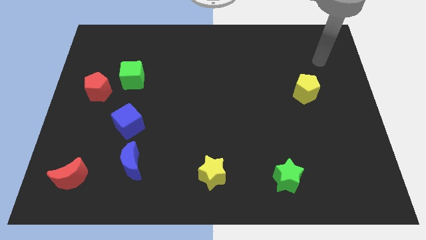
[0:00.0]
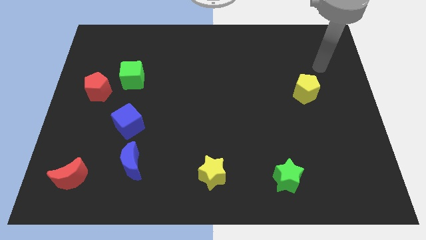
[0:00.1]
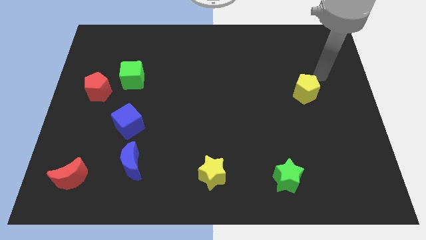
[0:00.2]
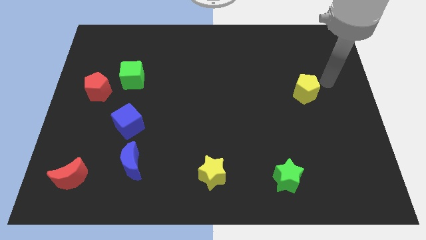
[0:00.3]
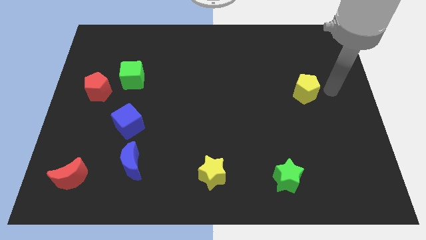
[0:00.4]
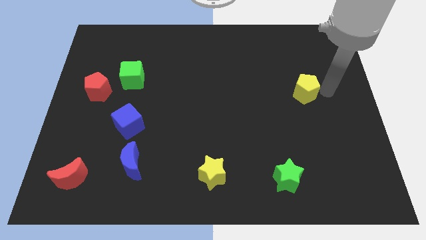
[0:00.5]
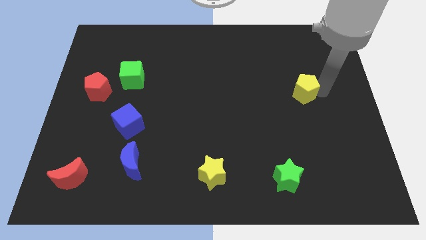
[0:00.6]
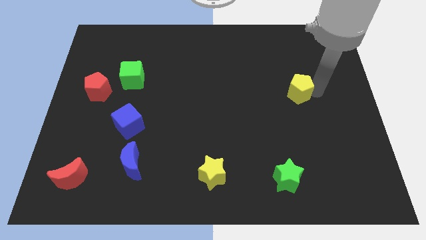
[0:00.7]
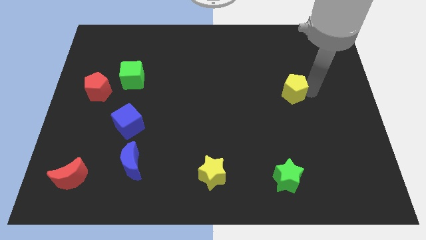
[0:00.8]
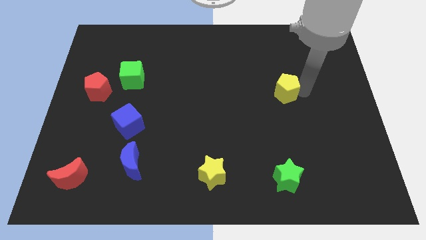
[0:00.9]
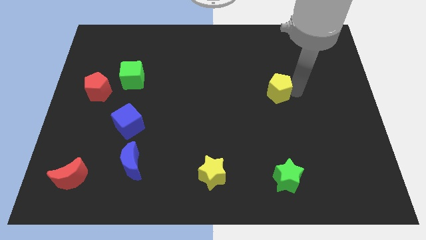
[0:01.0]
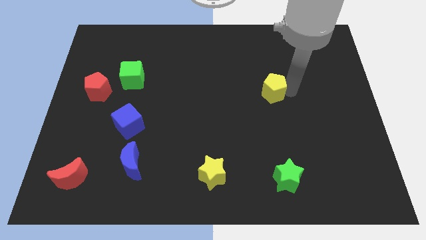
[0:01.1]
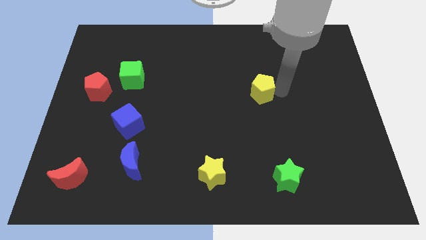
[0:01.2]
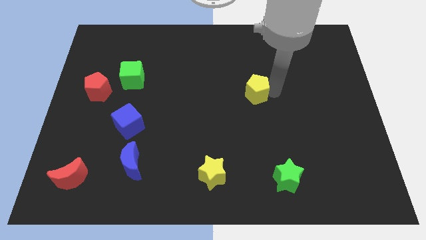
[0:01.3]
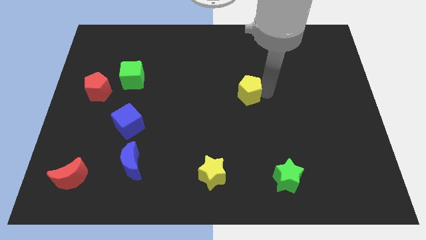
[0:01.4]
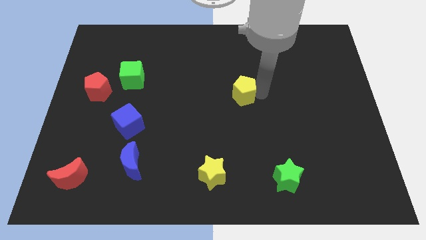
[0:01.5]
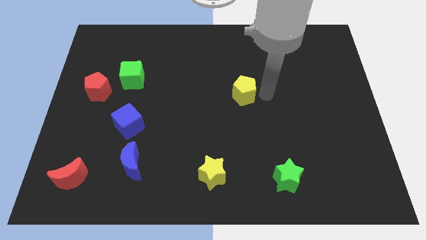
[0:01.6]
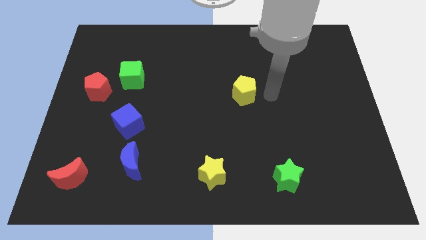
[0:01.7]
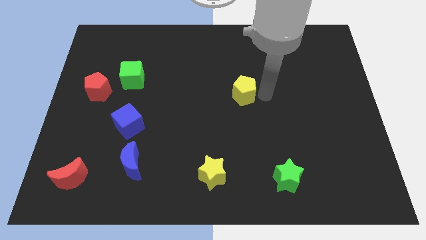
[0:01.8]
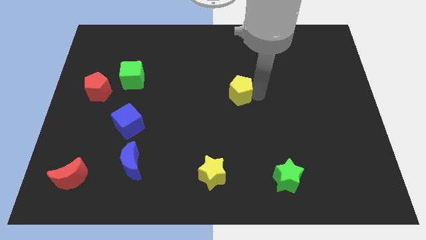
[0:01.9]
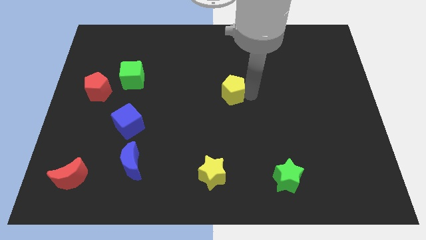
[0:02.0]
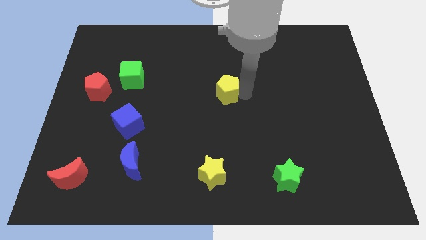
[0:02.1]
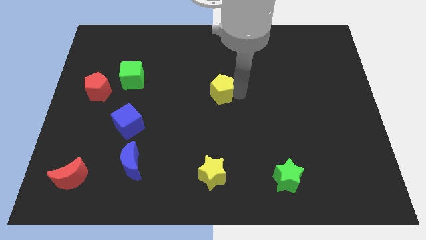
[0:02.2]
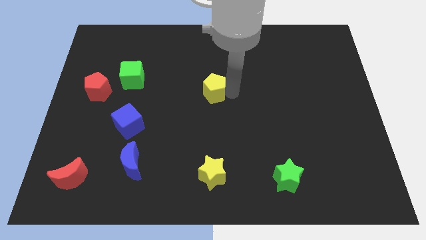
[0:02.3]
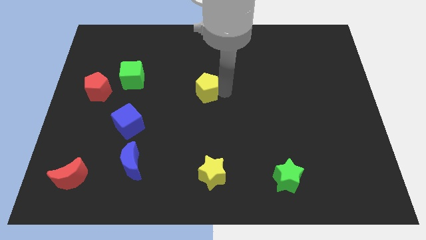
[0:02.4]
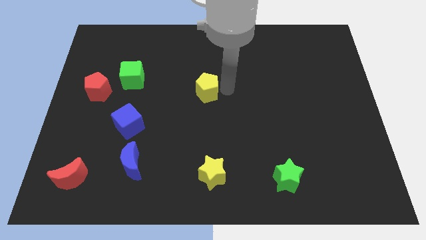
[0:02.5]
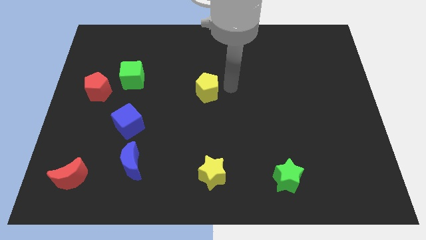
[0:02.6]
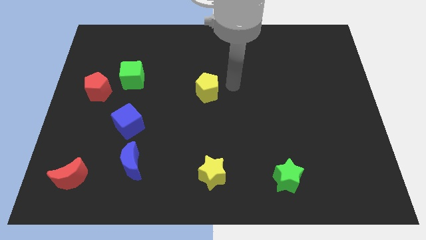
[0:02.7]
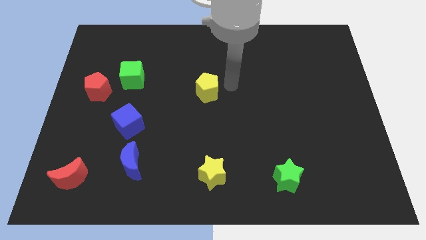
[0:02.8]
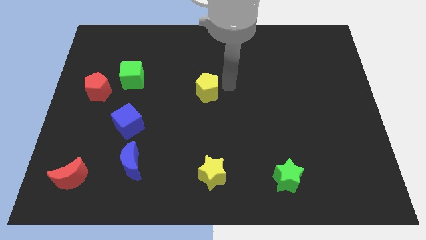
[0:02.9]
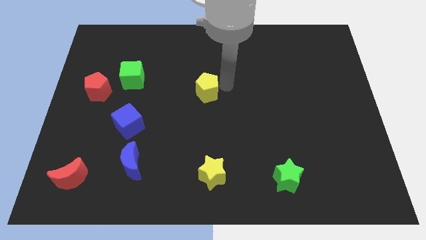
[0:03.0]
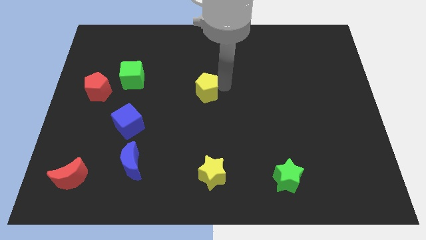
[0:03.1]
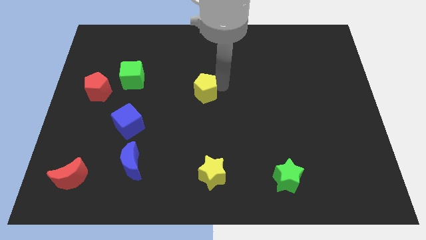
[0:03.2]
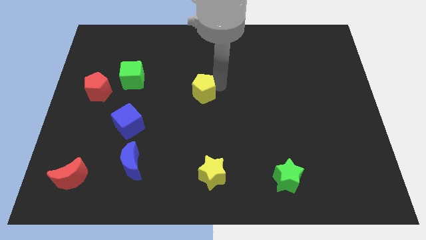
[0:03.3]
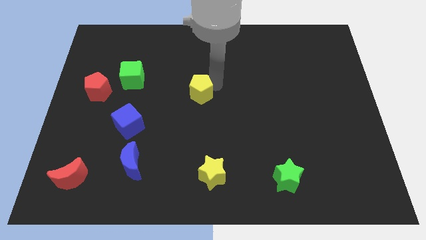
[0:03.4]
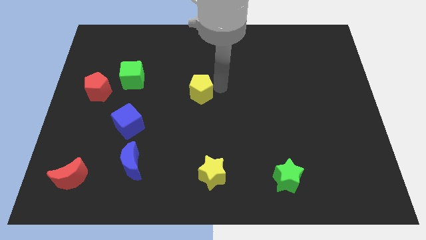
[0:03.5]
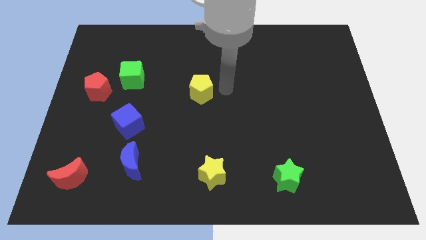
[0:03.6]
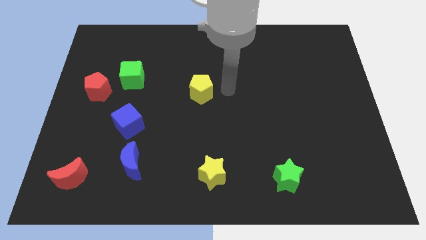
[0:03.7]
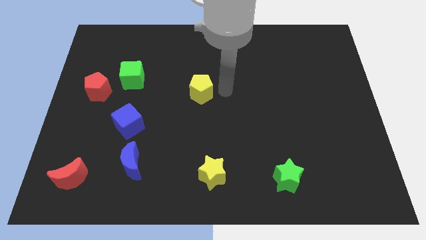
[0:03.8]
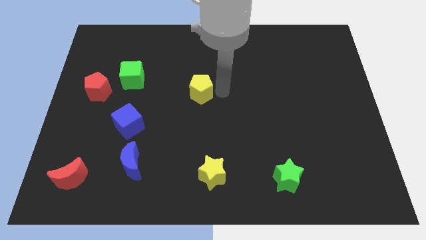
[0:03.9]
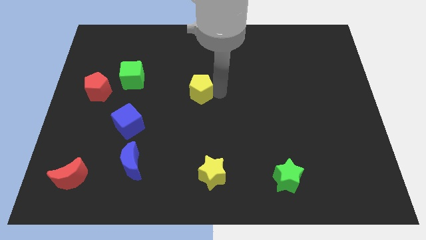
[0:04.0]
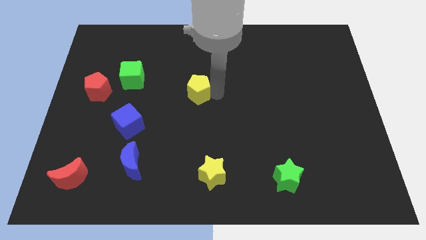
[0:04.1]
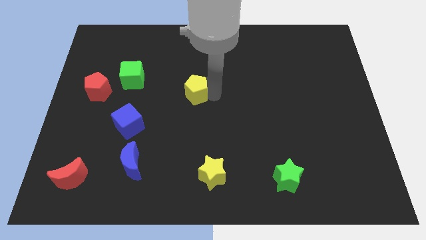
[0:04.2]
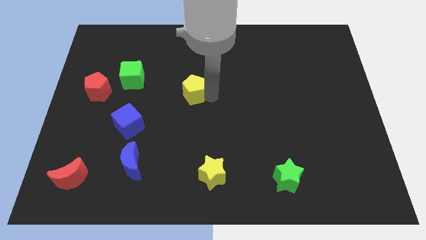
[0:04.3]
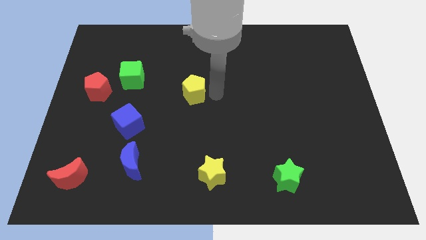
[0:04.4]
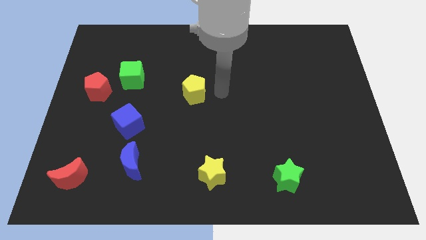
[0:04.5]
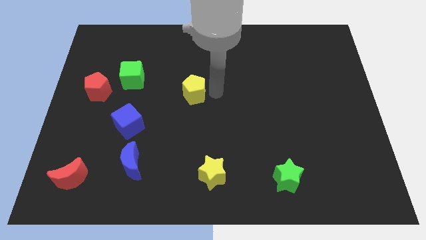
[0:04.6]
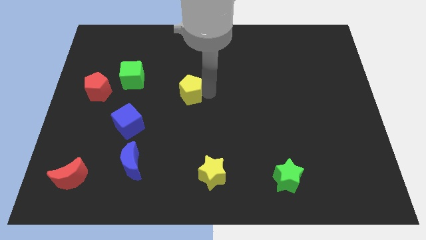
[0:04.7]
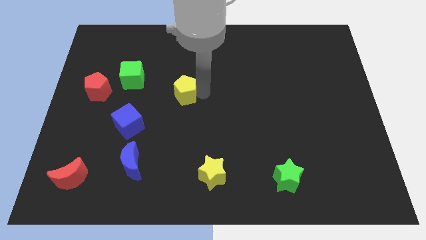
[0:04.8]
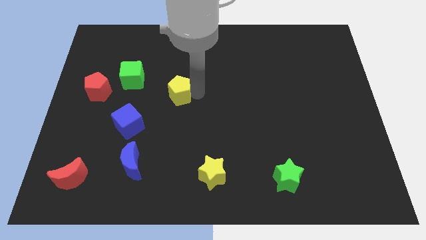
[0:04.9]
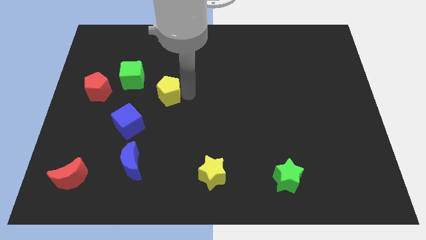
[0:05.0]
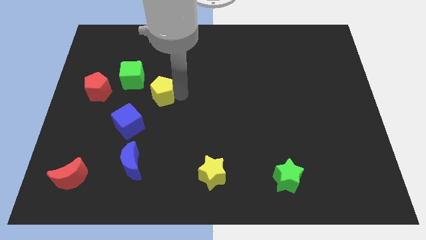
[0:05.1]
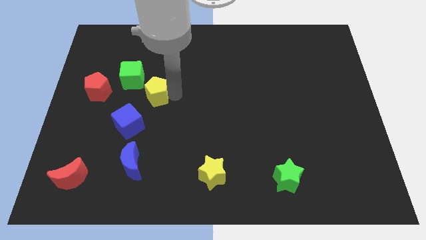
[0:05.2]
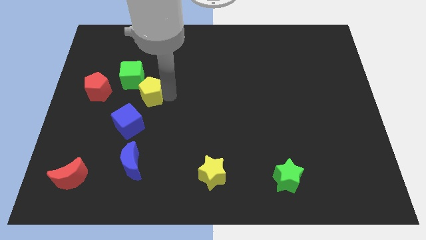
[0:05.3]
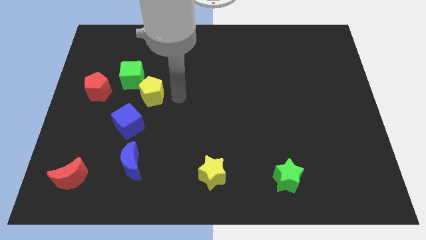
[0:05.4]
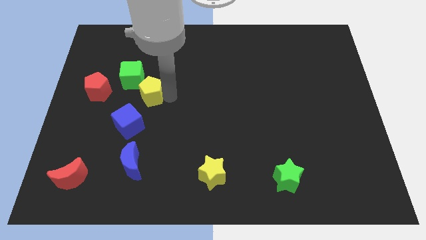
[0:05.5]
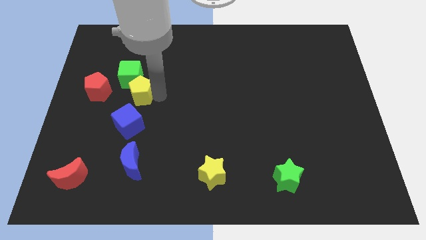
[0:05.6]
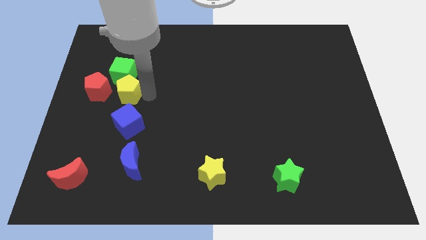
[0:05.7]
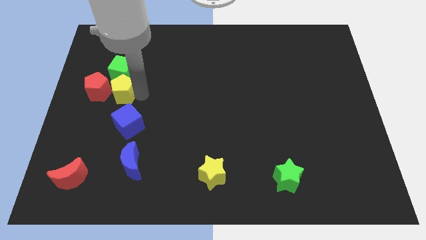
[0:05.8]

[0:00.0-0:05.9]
slide the yellow pentagon close to the red pentagon

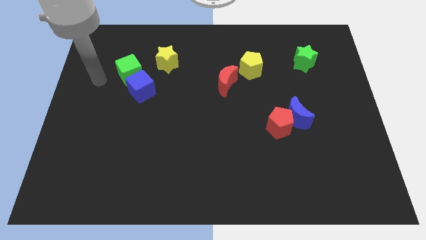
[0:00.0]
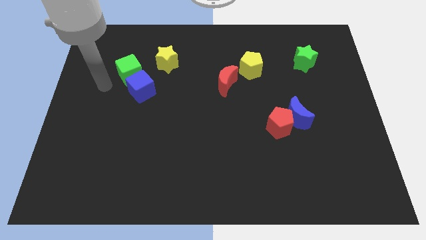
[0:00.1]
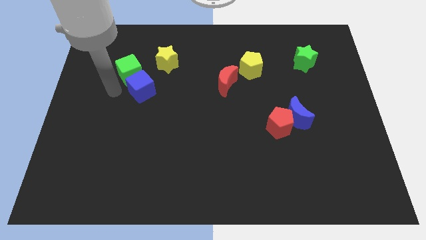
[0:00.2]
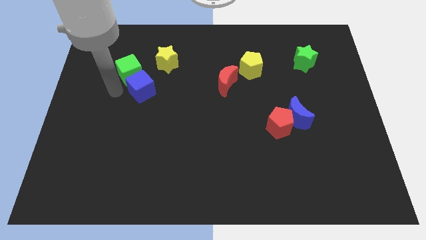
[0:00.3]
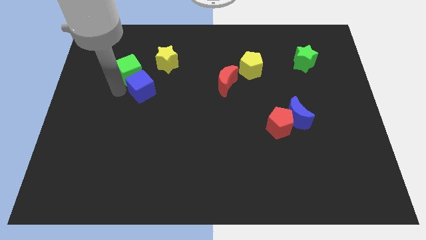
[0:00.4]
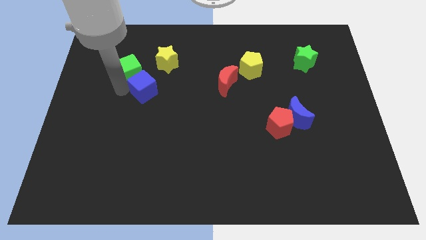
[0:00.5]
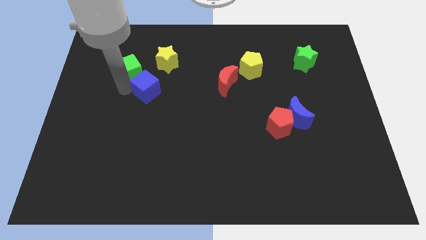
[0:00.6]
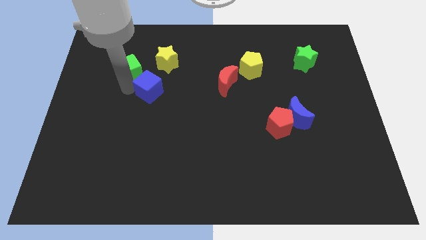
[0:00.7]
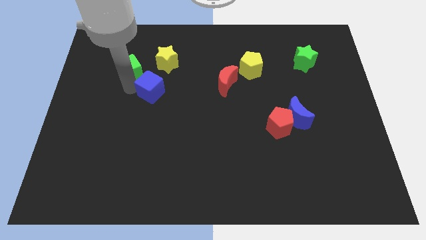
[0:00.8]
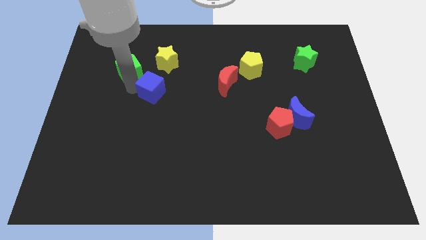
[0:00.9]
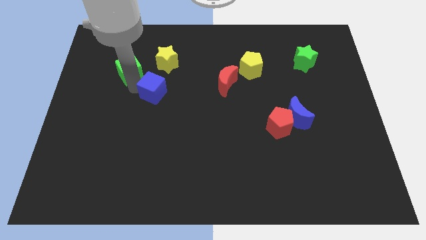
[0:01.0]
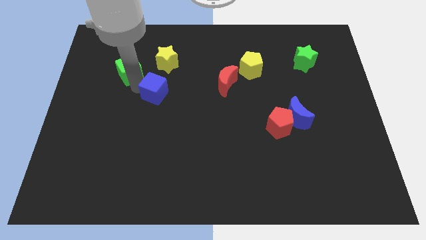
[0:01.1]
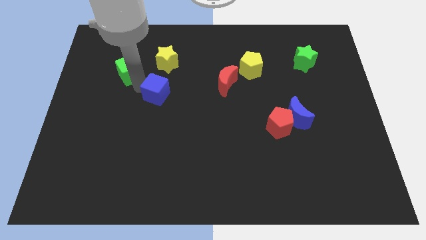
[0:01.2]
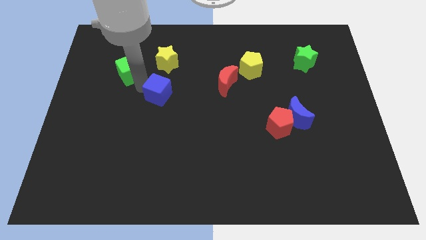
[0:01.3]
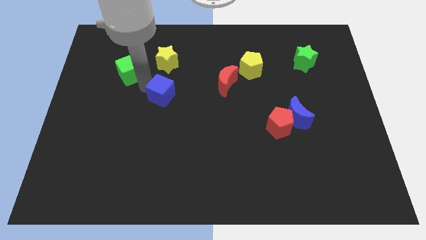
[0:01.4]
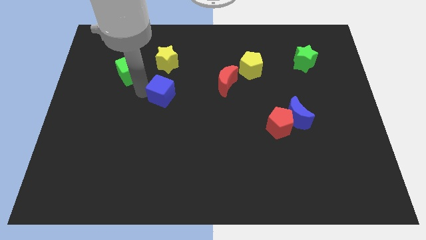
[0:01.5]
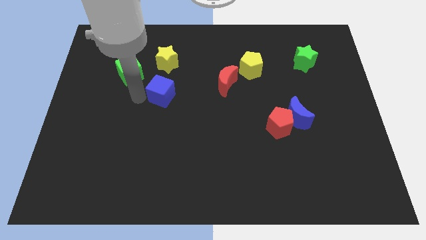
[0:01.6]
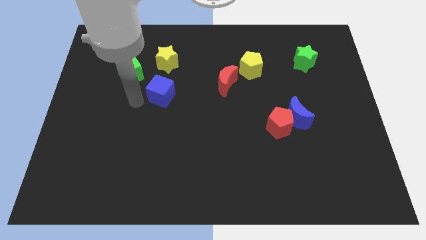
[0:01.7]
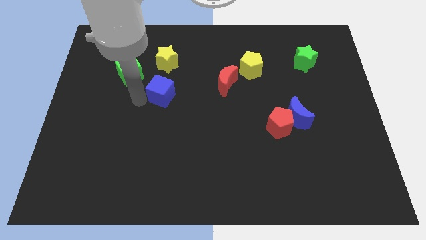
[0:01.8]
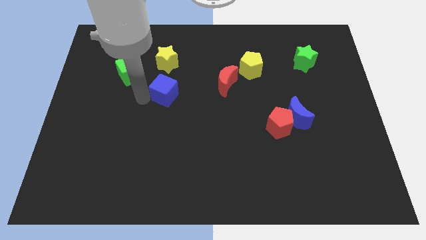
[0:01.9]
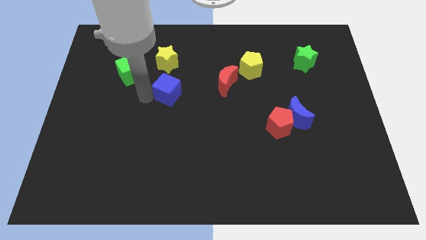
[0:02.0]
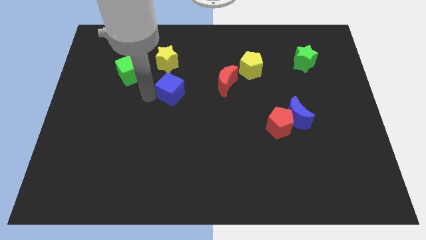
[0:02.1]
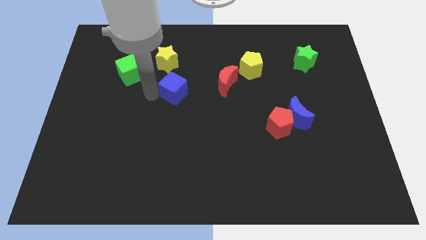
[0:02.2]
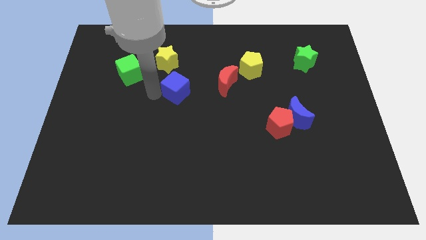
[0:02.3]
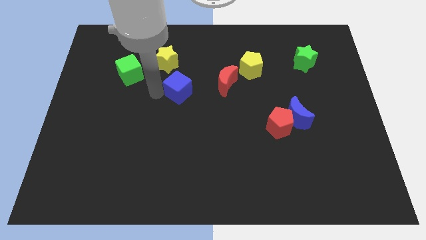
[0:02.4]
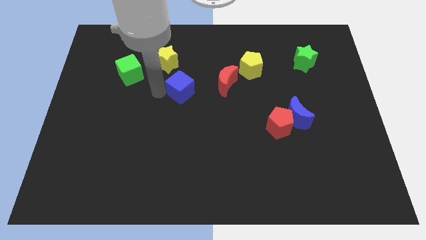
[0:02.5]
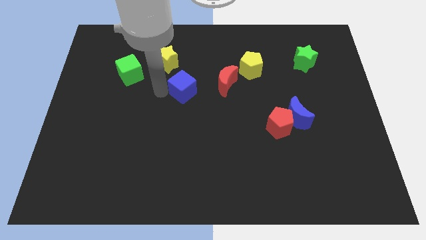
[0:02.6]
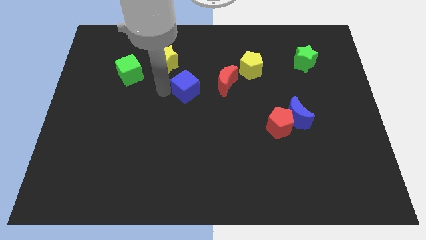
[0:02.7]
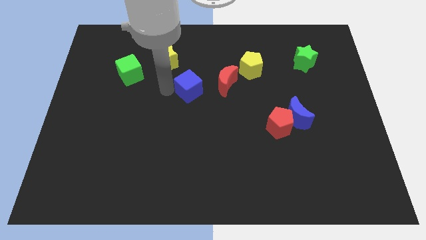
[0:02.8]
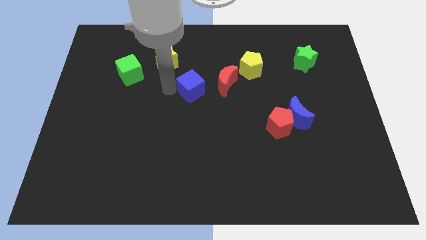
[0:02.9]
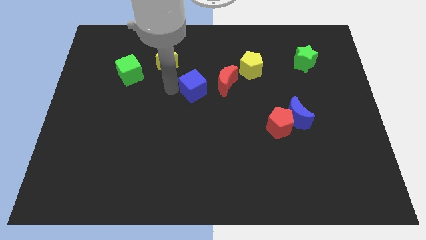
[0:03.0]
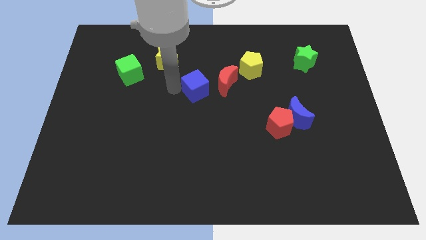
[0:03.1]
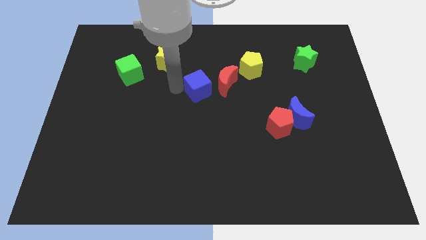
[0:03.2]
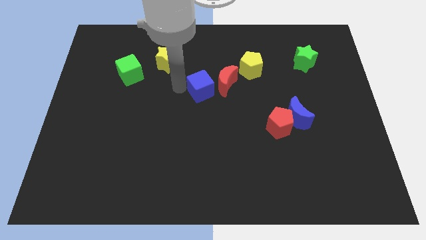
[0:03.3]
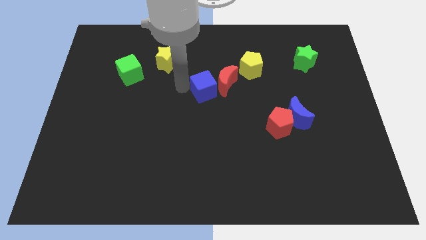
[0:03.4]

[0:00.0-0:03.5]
put the blue cube close to the red moon
